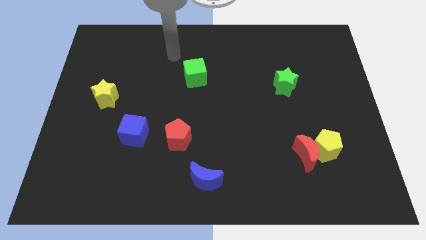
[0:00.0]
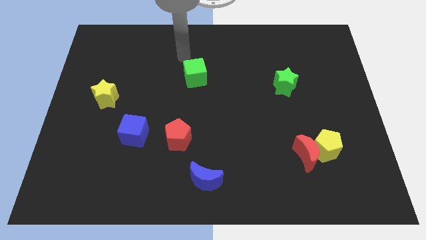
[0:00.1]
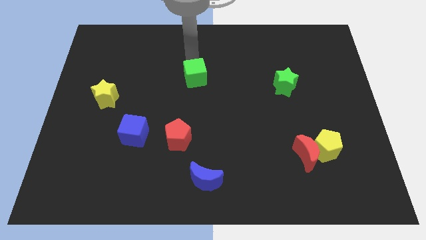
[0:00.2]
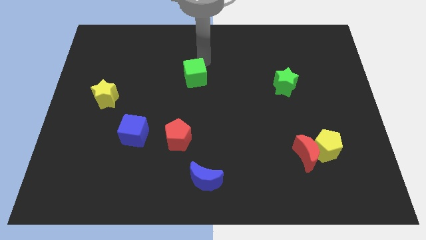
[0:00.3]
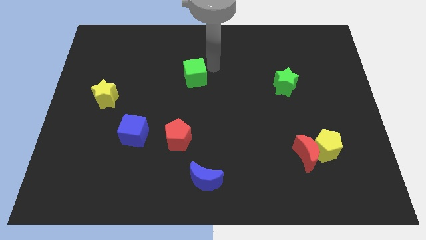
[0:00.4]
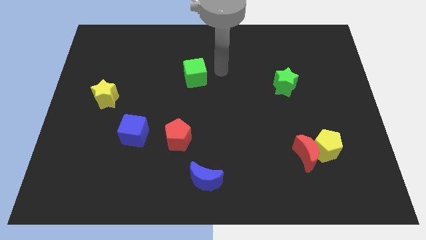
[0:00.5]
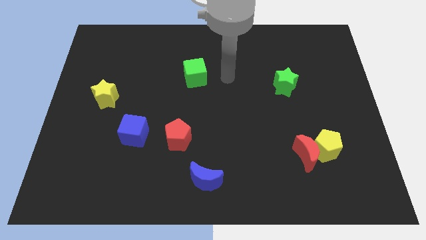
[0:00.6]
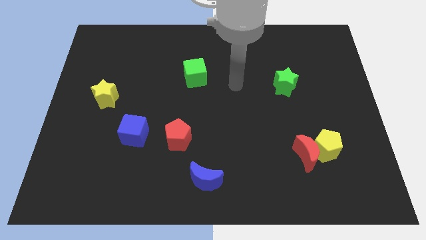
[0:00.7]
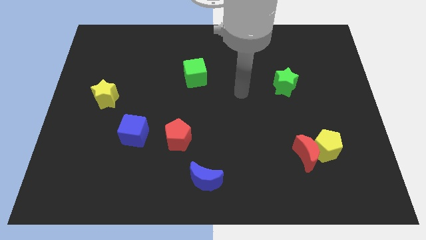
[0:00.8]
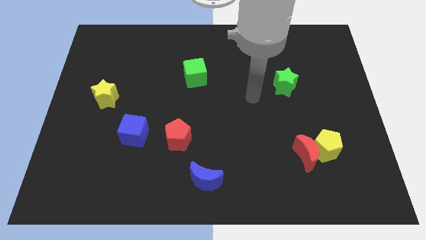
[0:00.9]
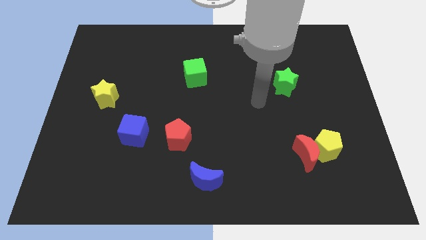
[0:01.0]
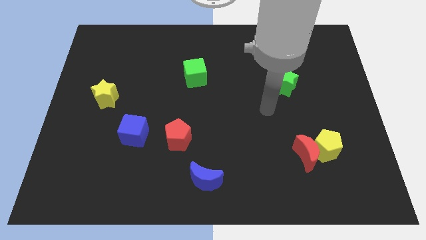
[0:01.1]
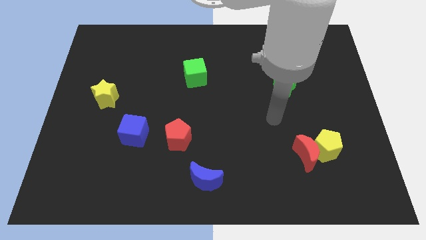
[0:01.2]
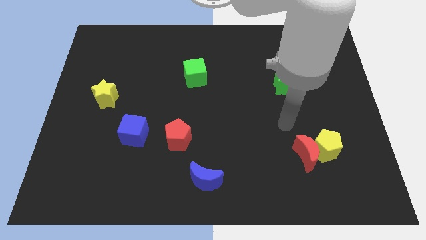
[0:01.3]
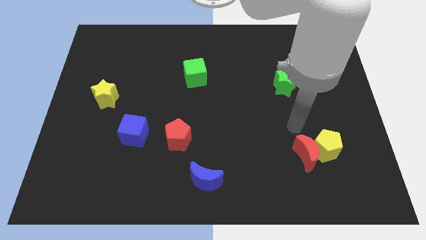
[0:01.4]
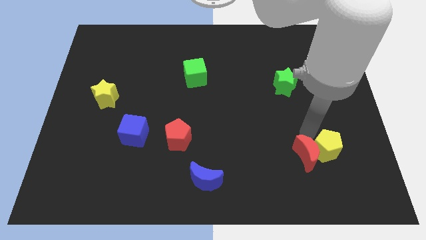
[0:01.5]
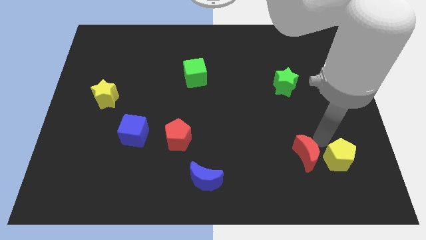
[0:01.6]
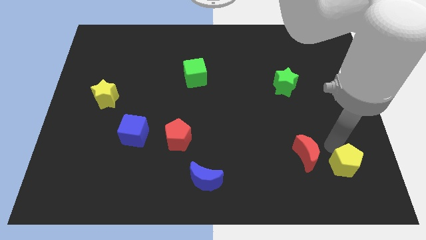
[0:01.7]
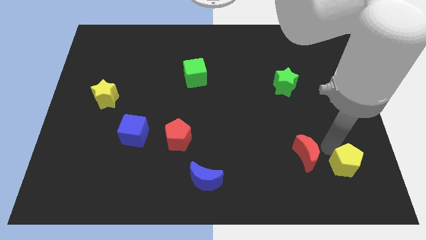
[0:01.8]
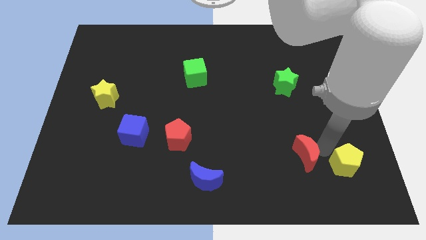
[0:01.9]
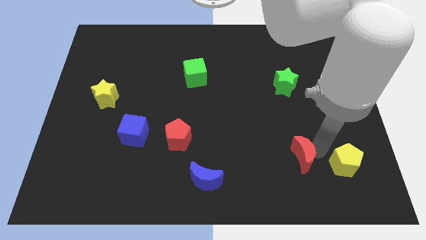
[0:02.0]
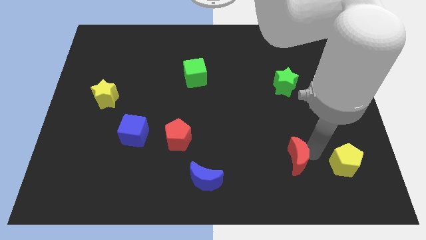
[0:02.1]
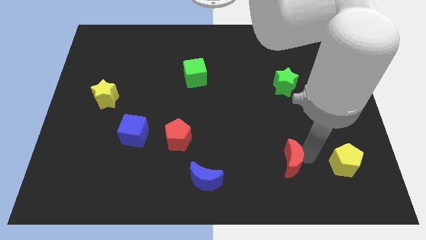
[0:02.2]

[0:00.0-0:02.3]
move the red moon away from the yellow pentagon

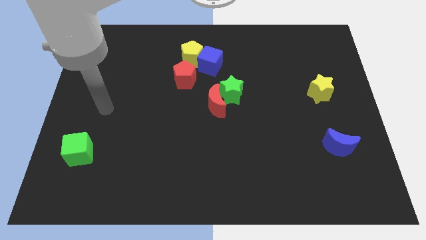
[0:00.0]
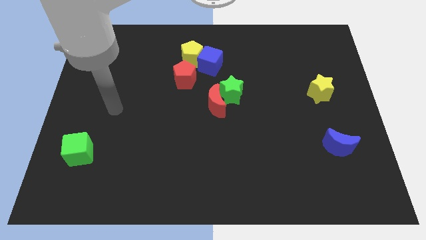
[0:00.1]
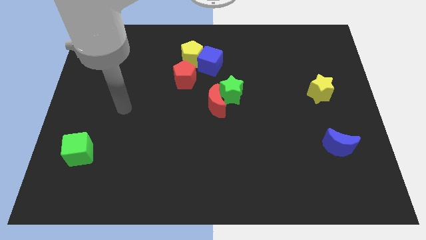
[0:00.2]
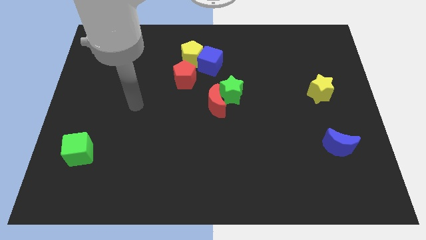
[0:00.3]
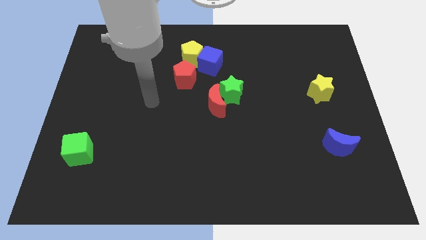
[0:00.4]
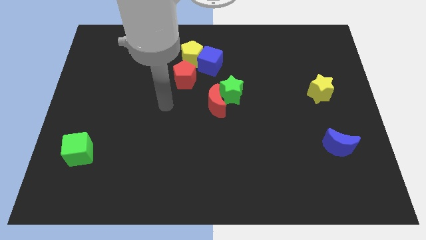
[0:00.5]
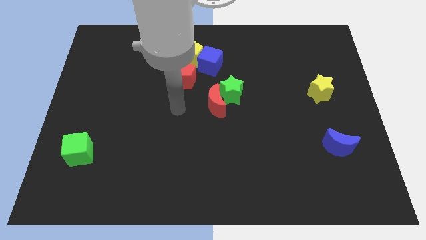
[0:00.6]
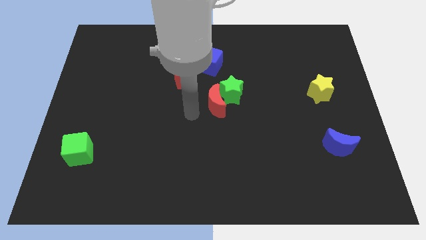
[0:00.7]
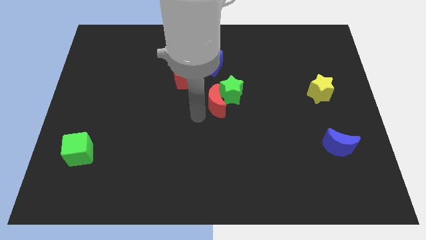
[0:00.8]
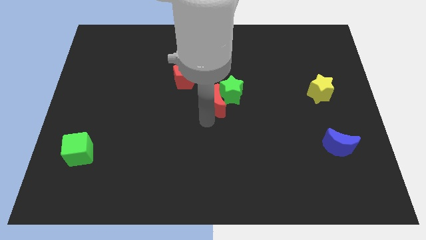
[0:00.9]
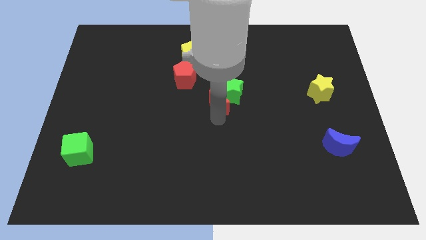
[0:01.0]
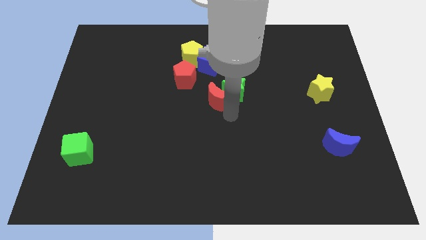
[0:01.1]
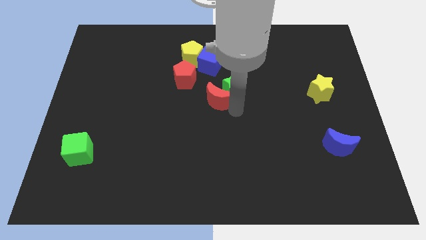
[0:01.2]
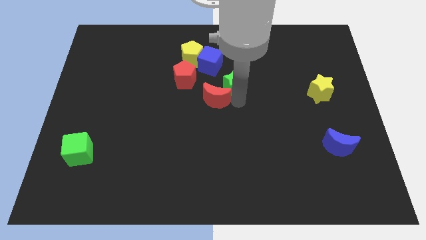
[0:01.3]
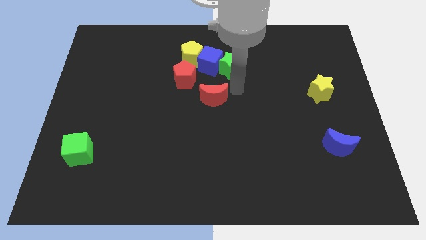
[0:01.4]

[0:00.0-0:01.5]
move the red moon away from the green star

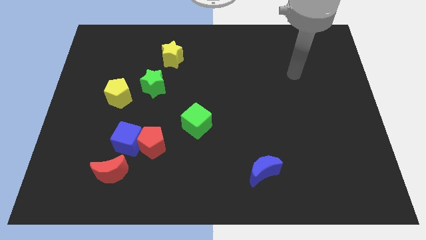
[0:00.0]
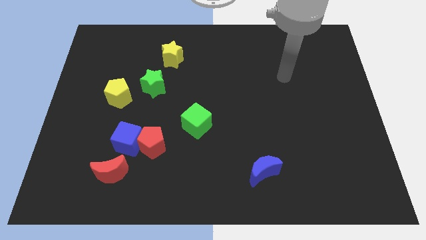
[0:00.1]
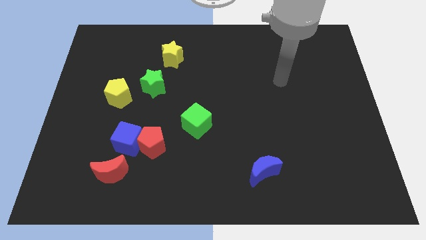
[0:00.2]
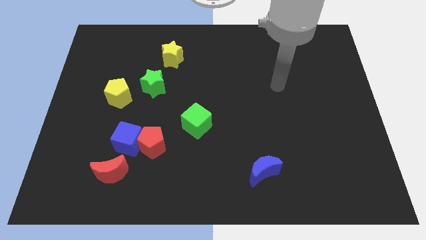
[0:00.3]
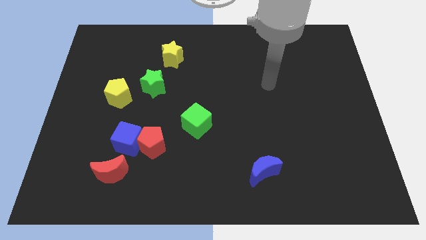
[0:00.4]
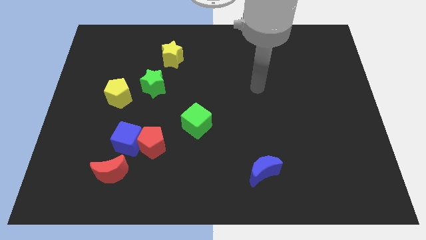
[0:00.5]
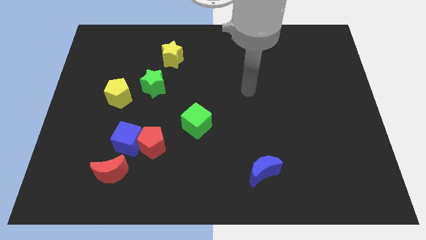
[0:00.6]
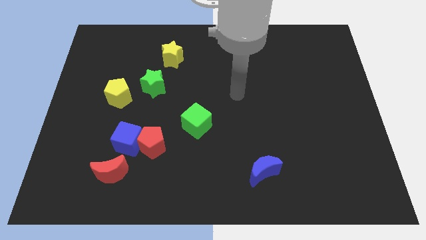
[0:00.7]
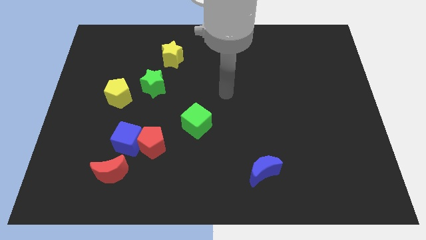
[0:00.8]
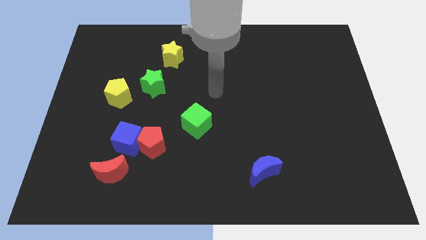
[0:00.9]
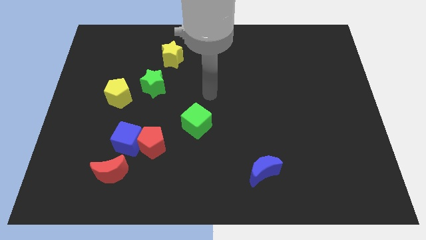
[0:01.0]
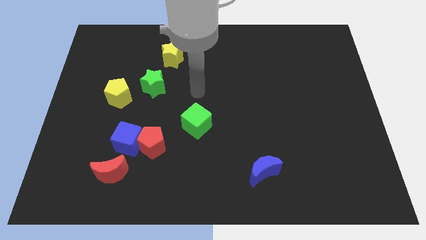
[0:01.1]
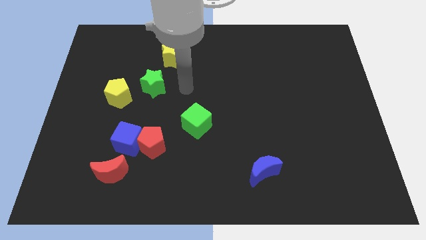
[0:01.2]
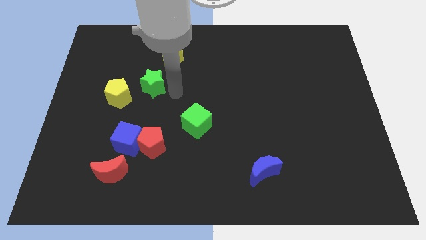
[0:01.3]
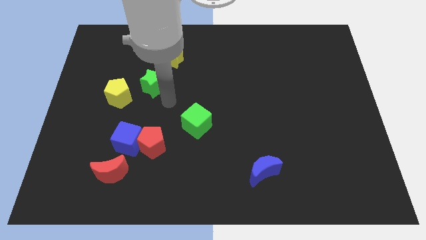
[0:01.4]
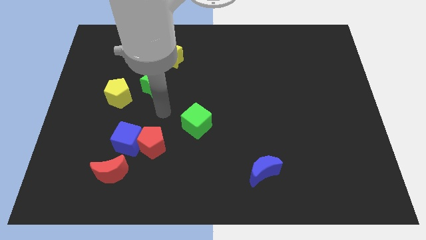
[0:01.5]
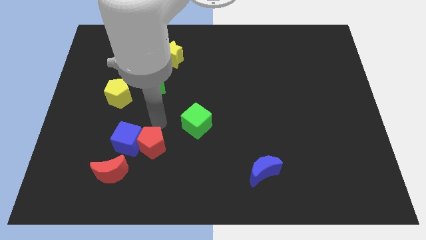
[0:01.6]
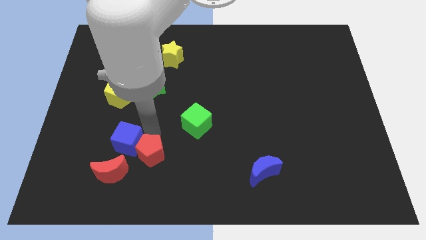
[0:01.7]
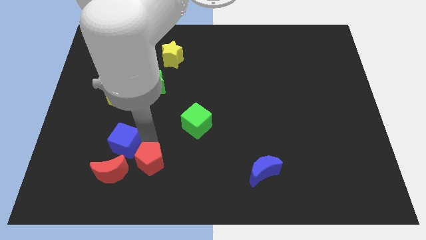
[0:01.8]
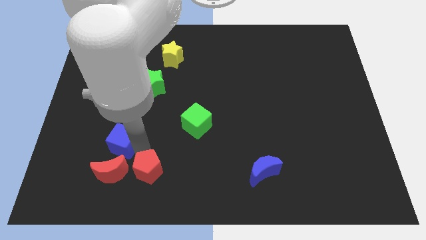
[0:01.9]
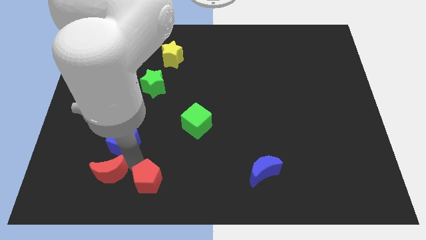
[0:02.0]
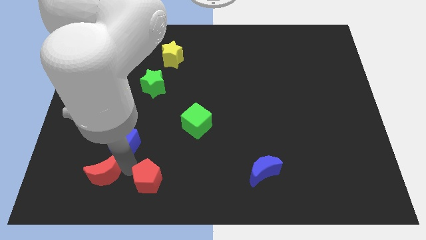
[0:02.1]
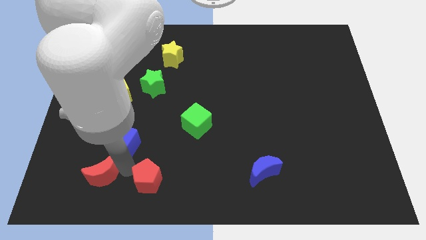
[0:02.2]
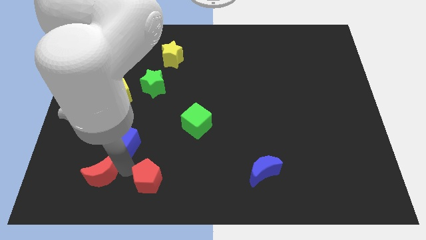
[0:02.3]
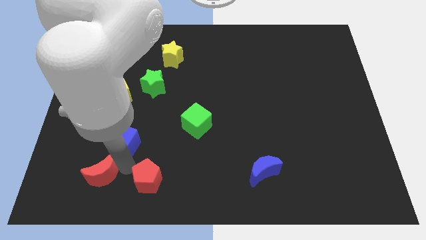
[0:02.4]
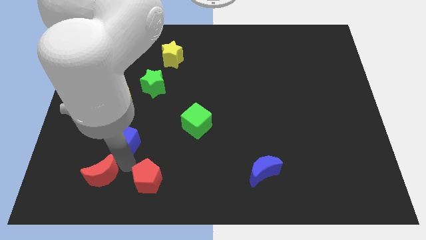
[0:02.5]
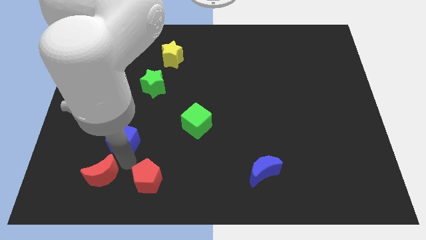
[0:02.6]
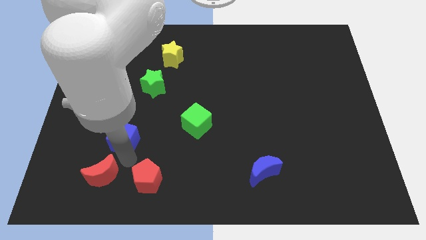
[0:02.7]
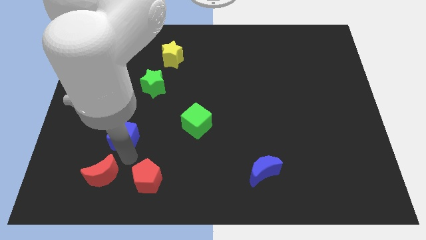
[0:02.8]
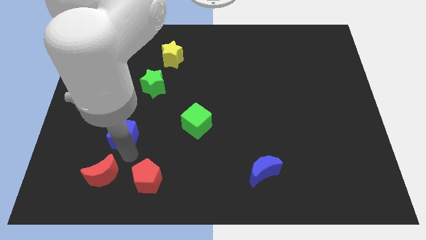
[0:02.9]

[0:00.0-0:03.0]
move the blue cube away from the red pentagon and red moon

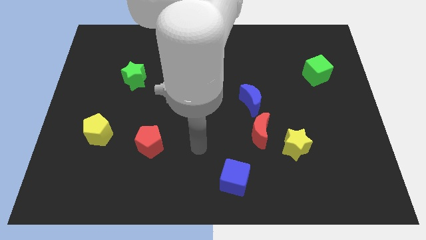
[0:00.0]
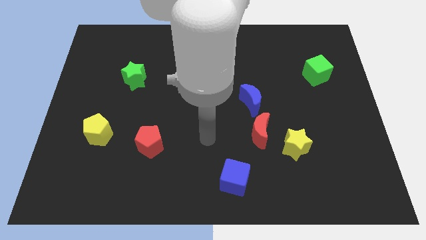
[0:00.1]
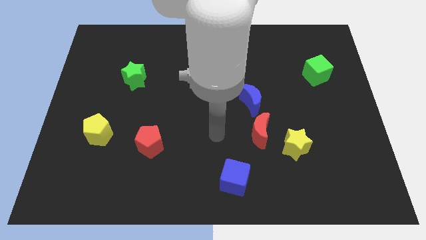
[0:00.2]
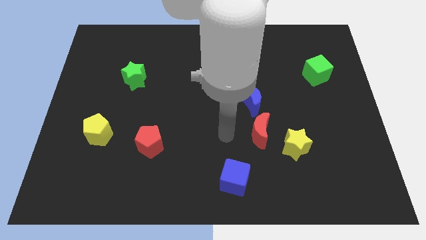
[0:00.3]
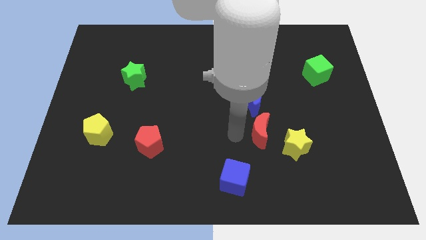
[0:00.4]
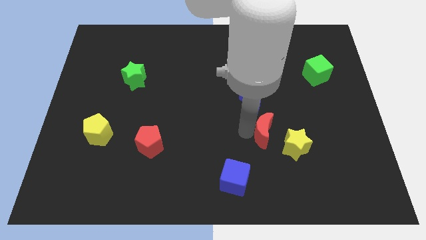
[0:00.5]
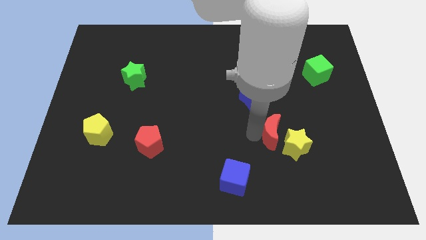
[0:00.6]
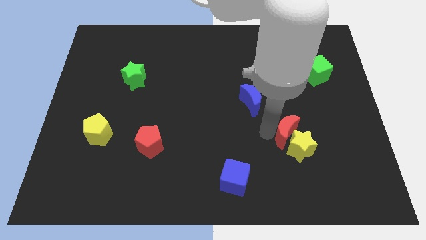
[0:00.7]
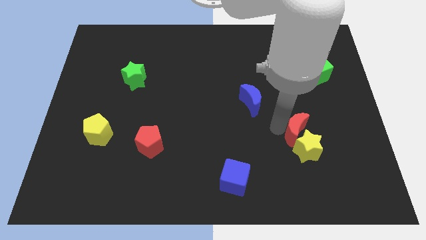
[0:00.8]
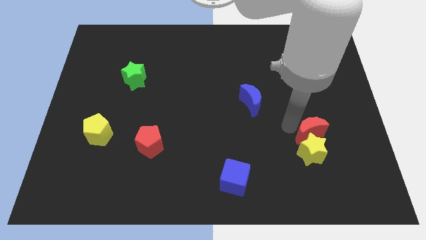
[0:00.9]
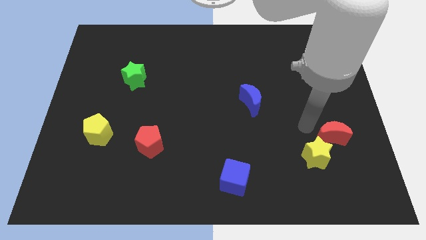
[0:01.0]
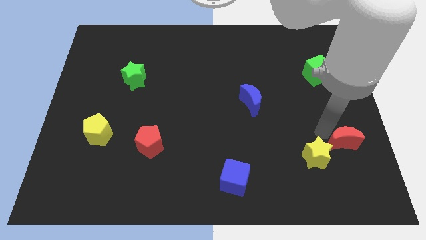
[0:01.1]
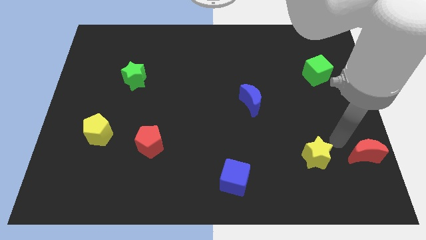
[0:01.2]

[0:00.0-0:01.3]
move the yellow star away from the red moon

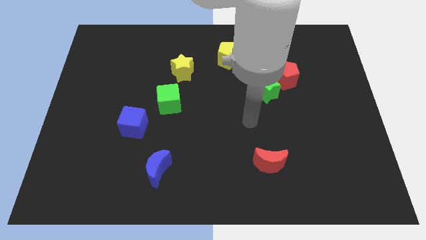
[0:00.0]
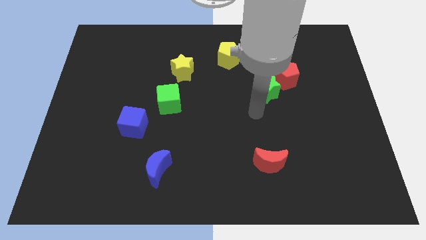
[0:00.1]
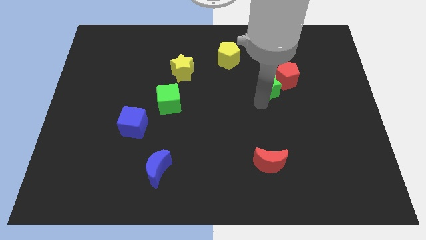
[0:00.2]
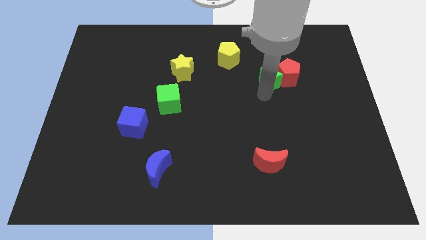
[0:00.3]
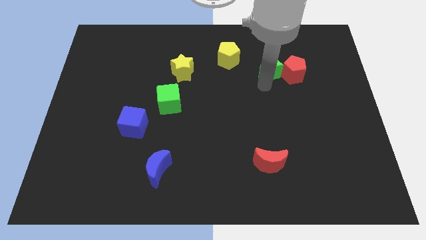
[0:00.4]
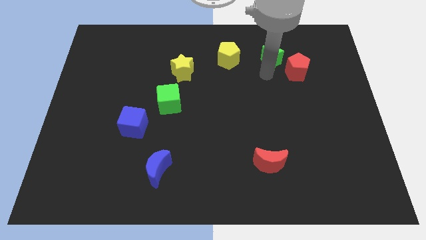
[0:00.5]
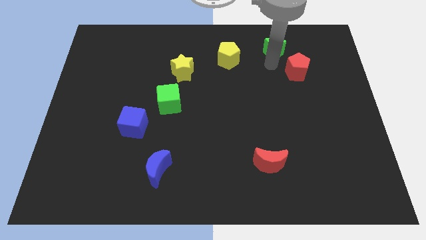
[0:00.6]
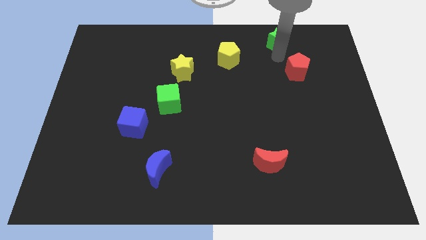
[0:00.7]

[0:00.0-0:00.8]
pull the red pentagon apart from the green star
